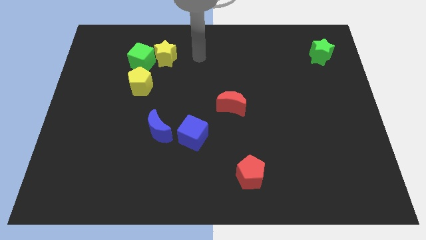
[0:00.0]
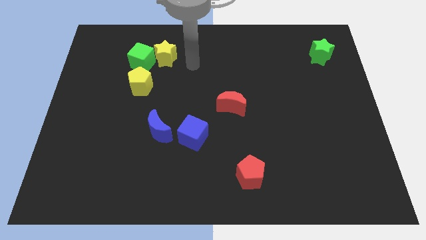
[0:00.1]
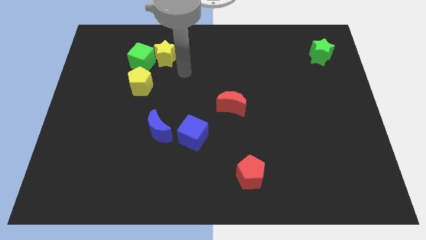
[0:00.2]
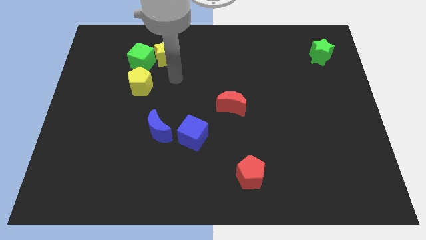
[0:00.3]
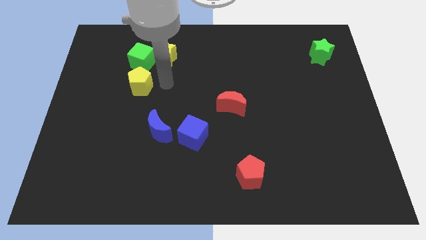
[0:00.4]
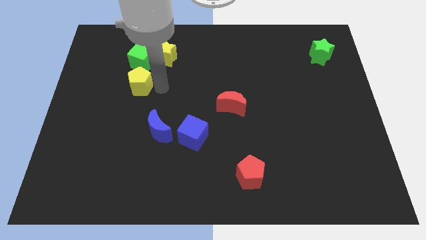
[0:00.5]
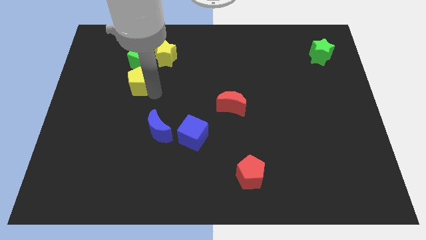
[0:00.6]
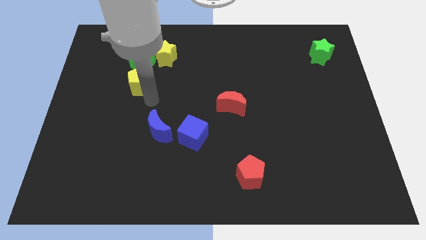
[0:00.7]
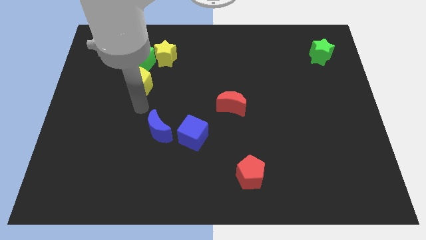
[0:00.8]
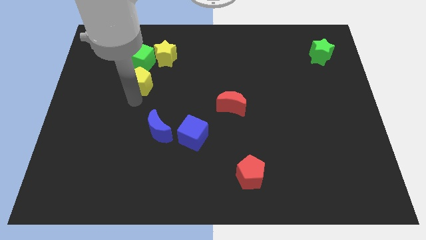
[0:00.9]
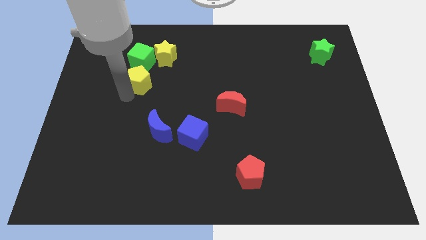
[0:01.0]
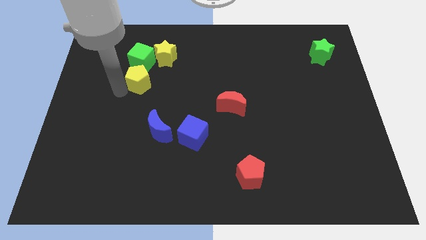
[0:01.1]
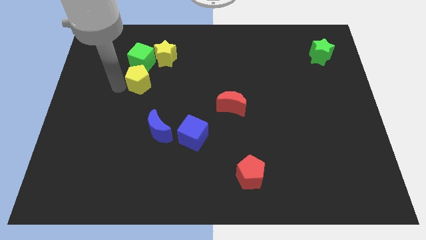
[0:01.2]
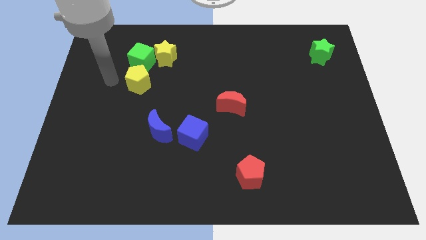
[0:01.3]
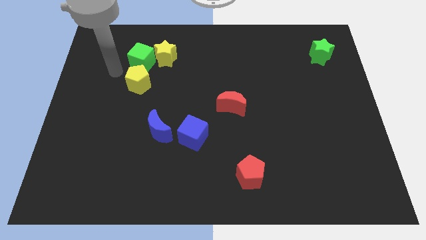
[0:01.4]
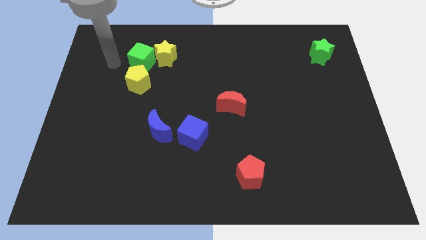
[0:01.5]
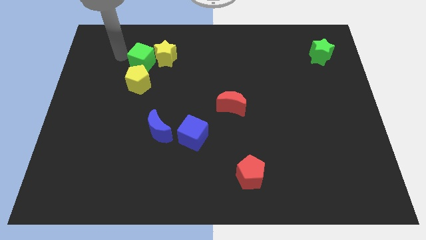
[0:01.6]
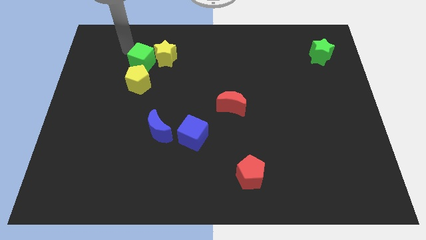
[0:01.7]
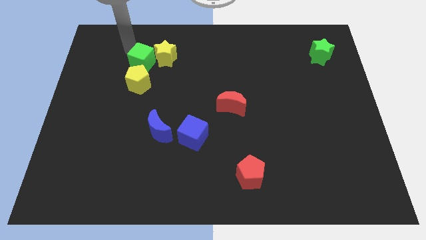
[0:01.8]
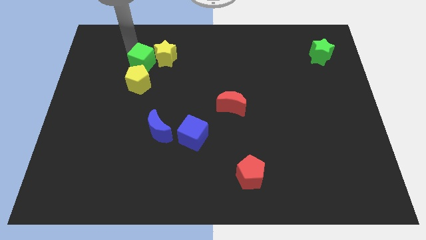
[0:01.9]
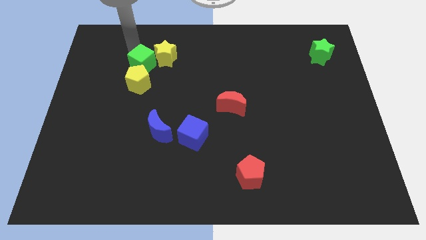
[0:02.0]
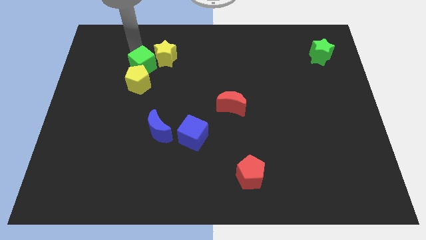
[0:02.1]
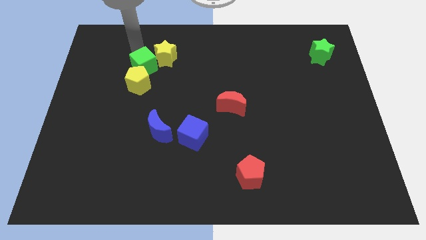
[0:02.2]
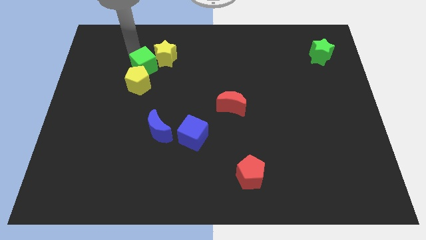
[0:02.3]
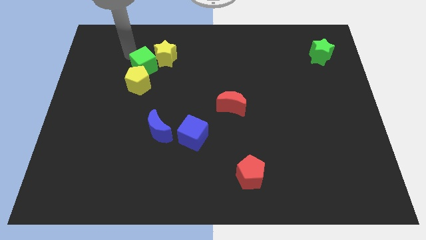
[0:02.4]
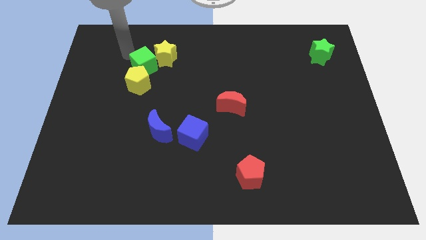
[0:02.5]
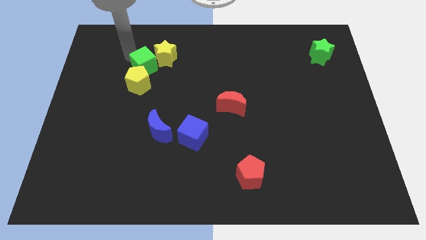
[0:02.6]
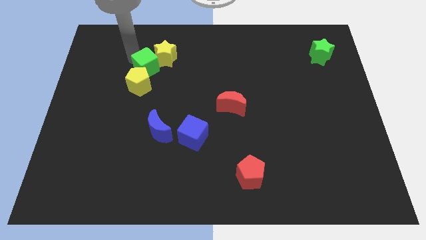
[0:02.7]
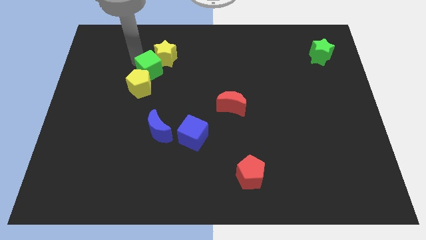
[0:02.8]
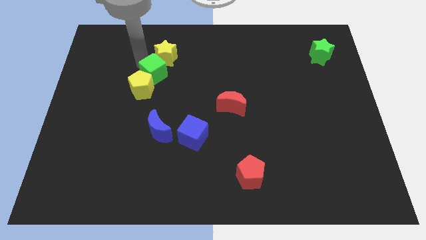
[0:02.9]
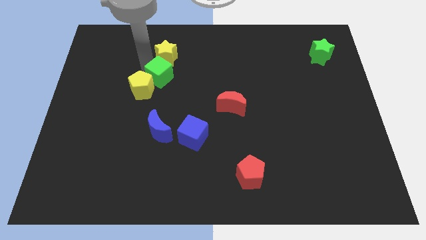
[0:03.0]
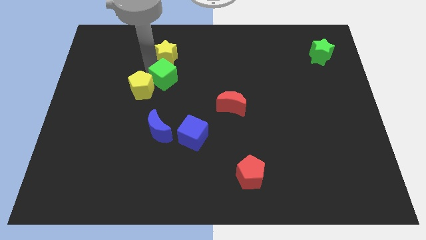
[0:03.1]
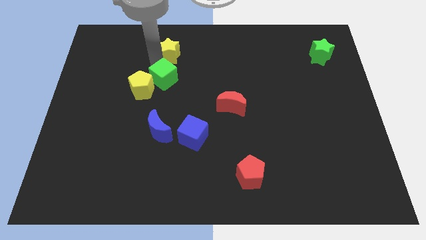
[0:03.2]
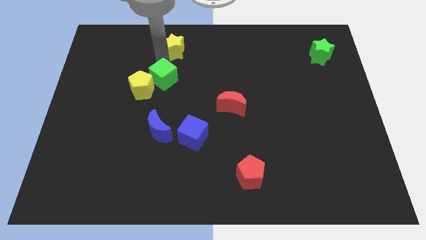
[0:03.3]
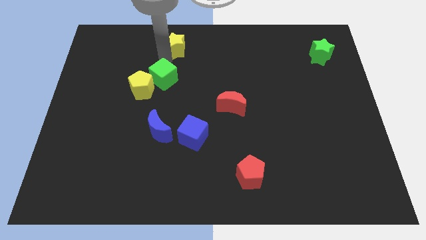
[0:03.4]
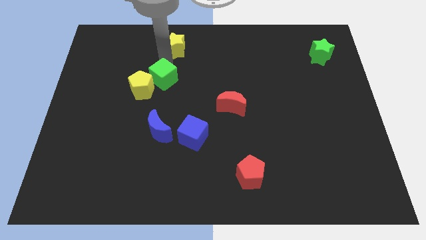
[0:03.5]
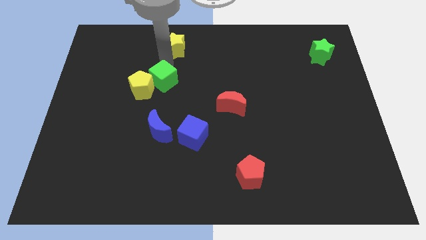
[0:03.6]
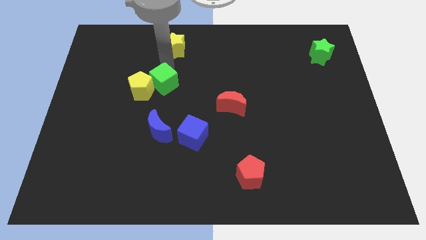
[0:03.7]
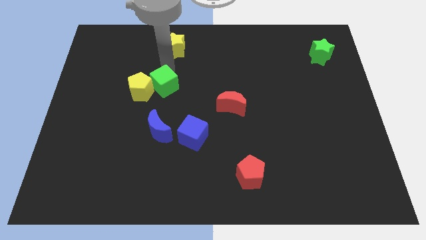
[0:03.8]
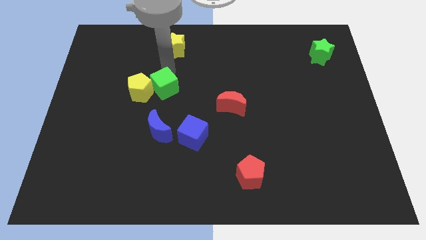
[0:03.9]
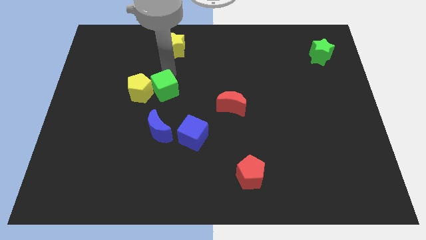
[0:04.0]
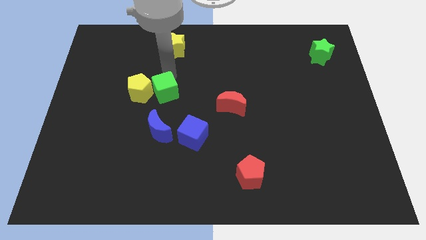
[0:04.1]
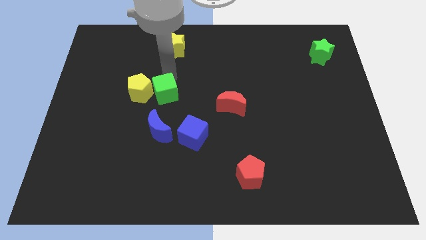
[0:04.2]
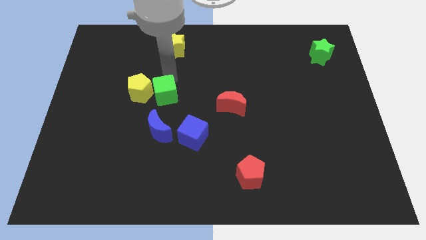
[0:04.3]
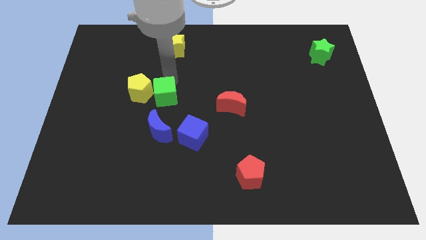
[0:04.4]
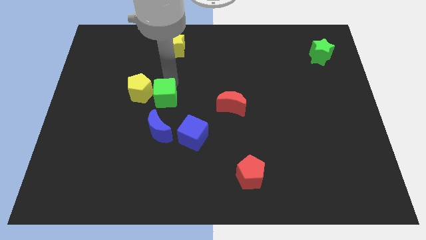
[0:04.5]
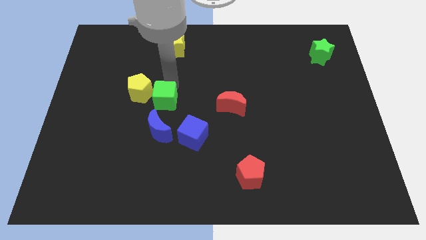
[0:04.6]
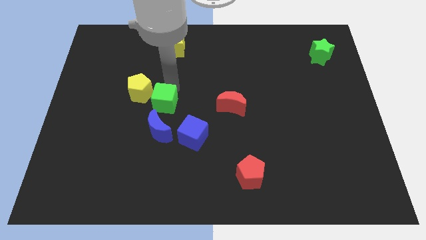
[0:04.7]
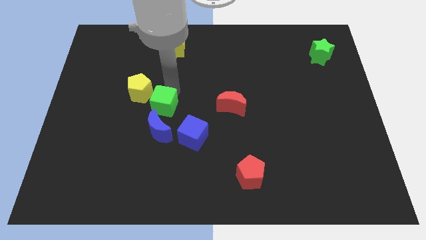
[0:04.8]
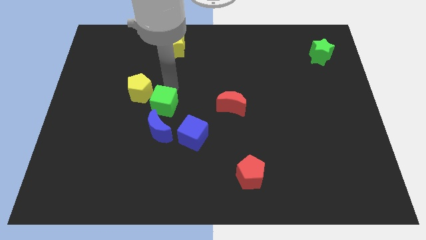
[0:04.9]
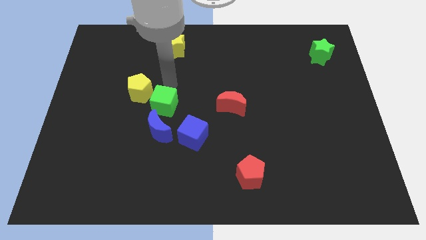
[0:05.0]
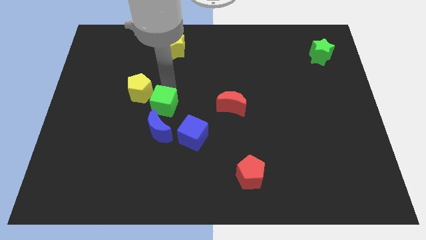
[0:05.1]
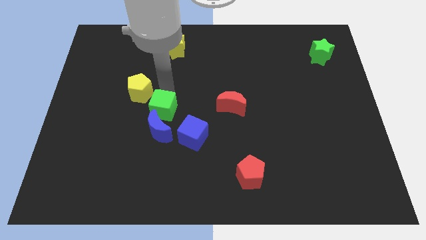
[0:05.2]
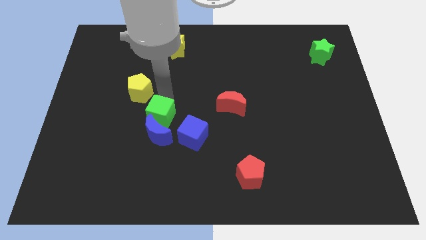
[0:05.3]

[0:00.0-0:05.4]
move the green cube close to the blue moon

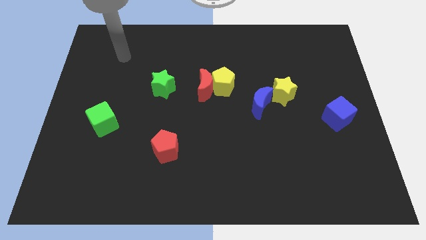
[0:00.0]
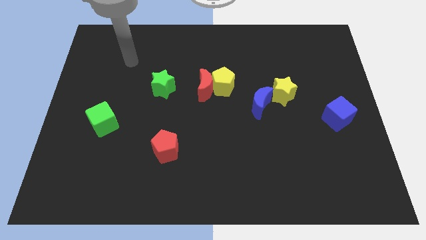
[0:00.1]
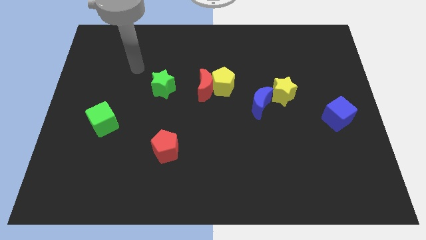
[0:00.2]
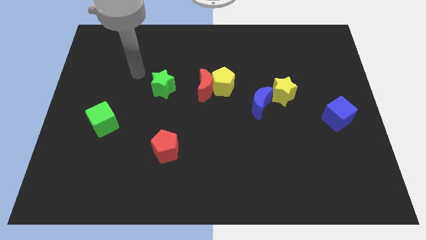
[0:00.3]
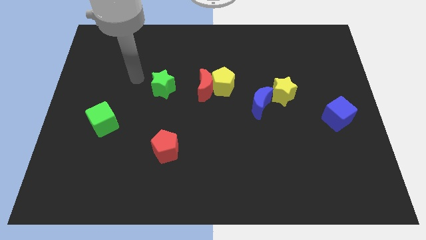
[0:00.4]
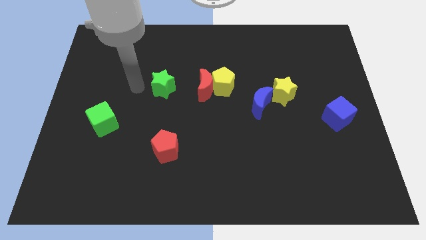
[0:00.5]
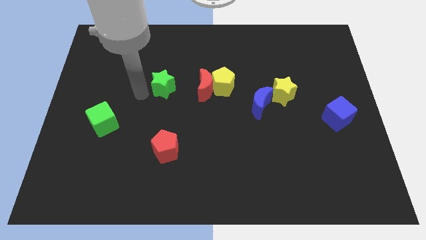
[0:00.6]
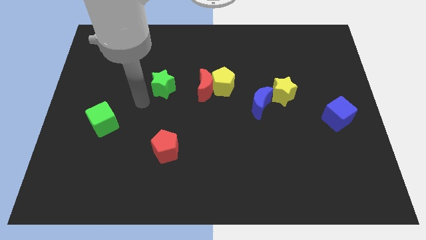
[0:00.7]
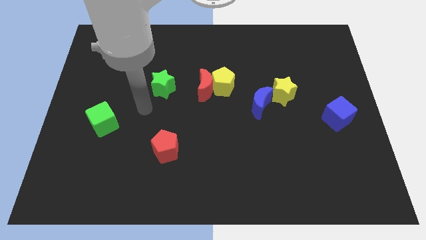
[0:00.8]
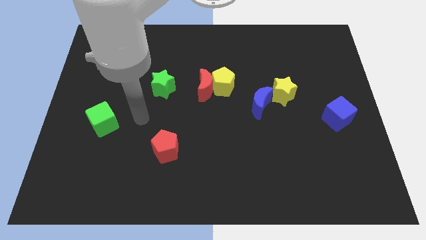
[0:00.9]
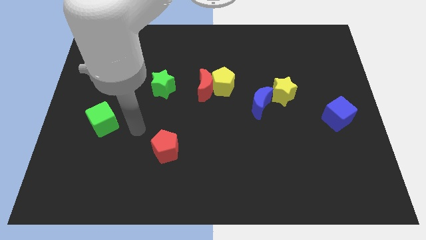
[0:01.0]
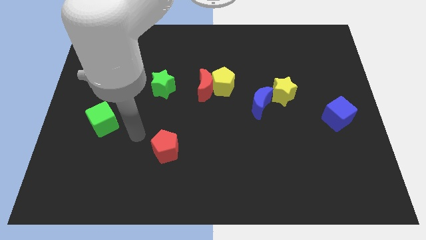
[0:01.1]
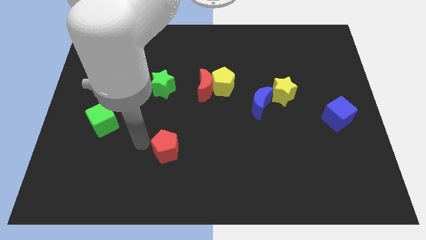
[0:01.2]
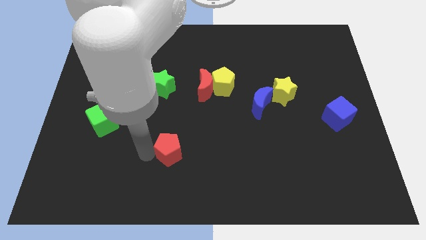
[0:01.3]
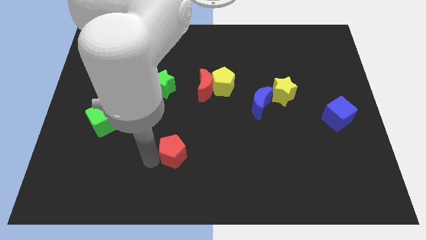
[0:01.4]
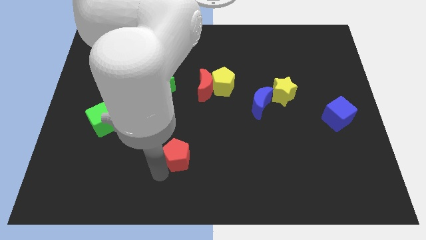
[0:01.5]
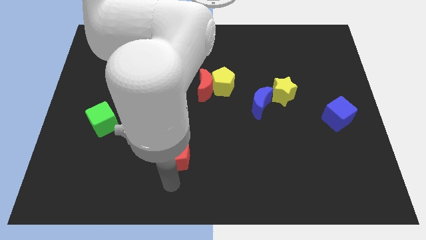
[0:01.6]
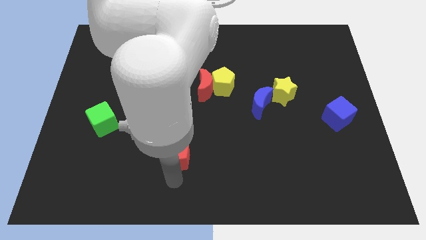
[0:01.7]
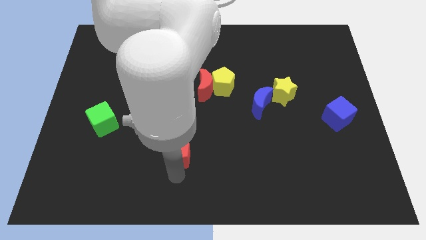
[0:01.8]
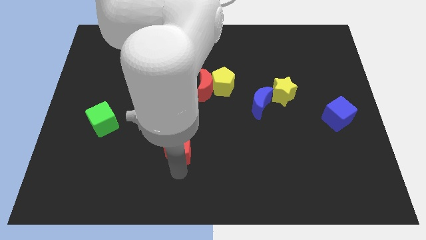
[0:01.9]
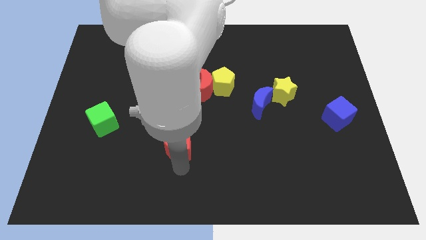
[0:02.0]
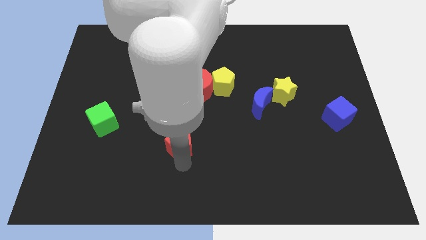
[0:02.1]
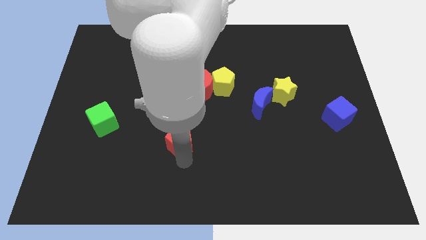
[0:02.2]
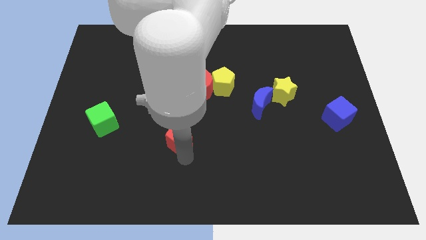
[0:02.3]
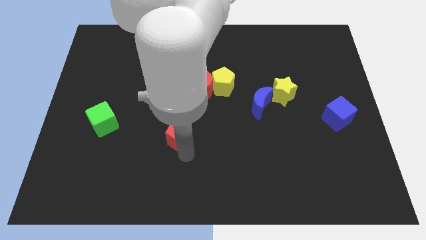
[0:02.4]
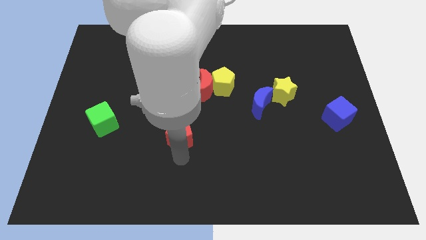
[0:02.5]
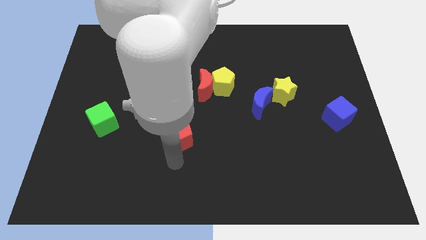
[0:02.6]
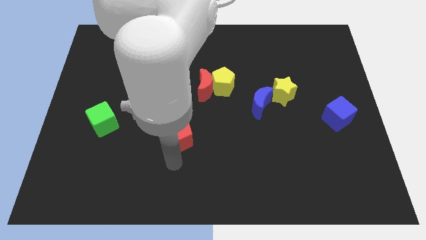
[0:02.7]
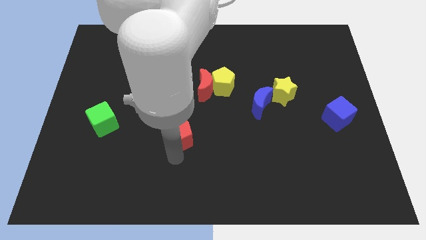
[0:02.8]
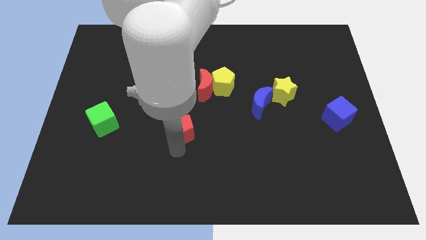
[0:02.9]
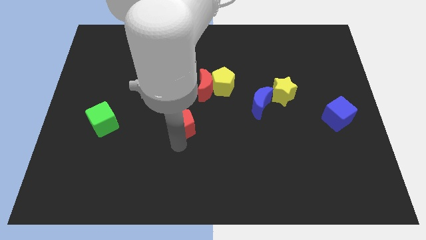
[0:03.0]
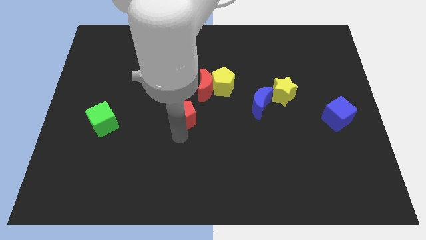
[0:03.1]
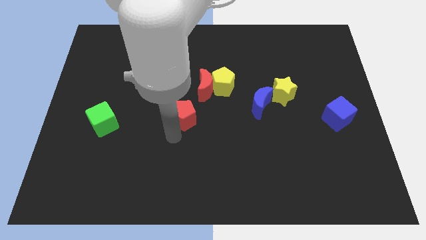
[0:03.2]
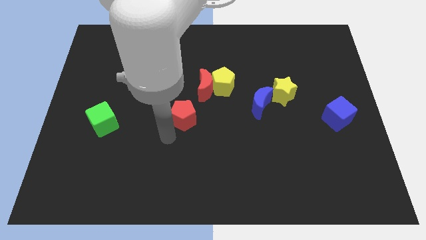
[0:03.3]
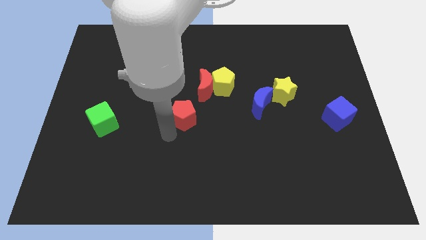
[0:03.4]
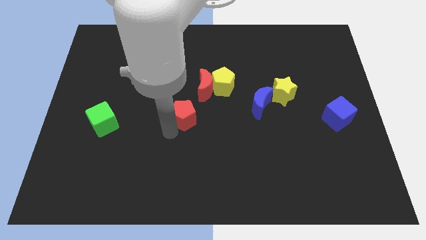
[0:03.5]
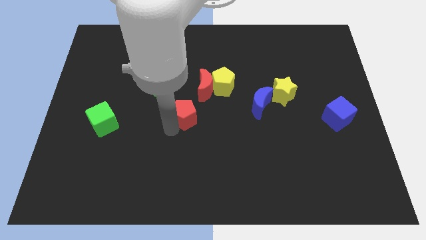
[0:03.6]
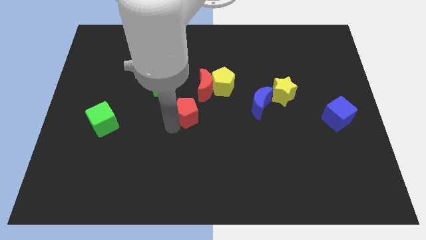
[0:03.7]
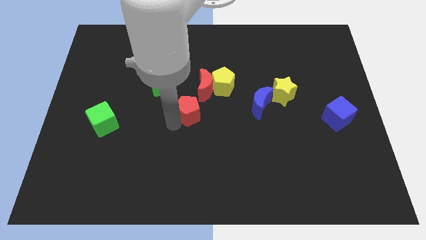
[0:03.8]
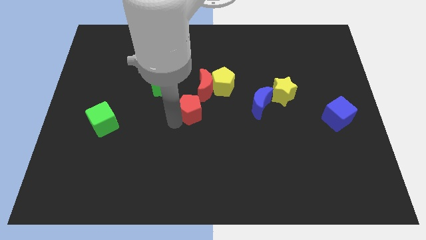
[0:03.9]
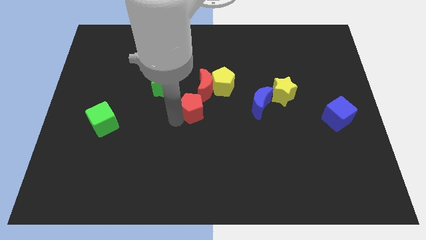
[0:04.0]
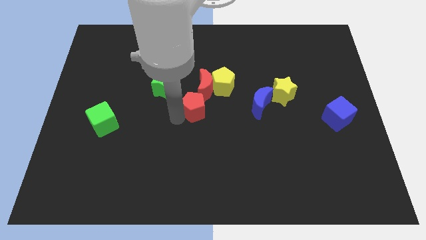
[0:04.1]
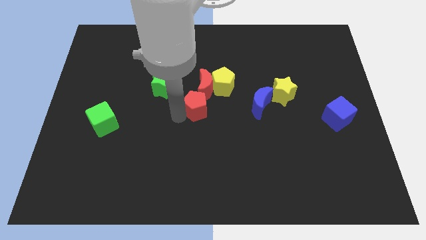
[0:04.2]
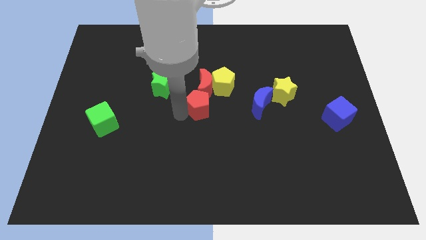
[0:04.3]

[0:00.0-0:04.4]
push the red pentagon towards the red moon
